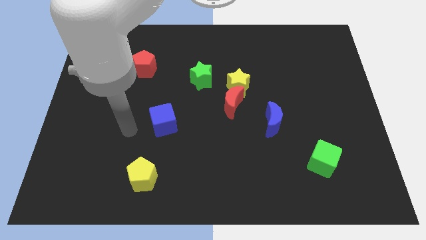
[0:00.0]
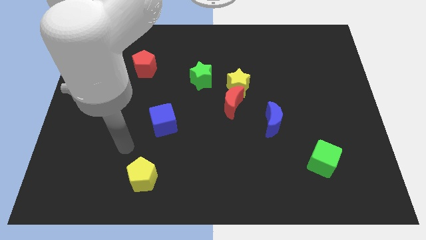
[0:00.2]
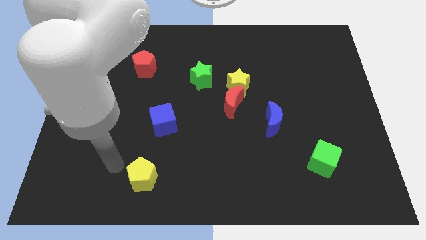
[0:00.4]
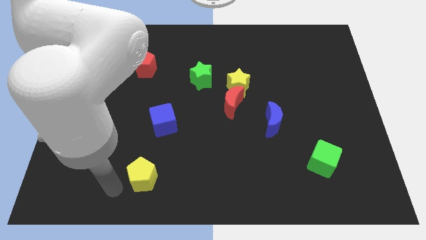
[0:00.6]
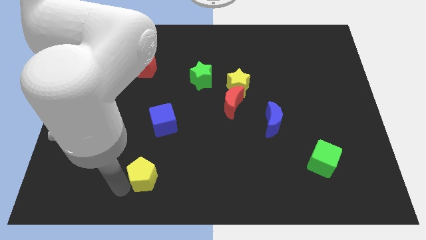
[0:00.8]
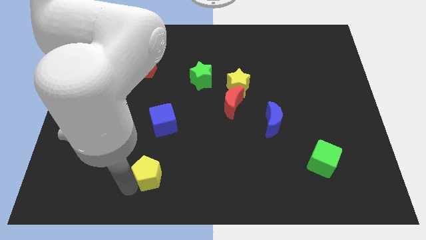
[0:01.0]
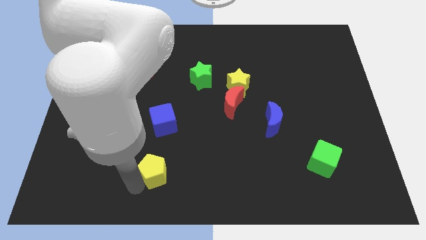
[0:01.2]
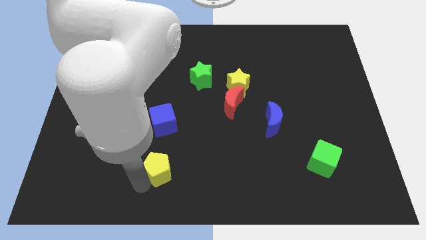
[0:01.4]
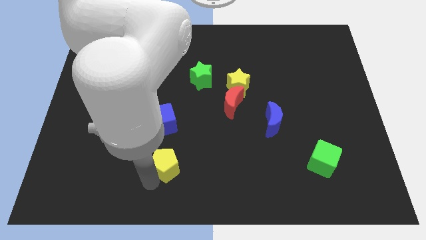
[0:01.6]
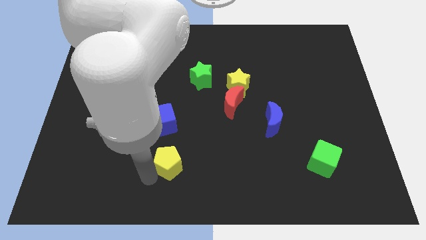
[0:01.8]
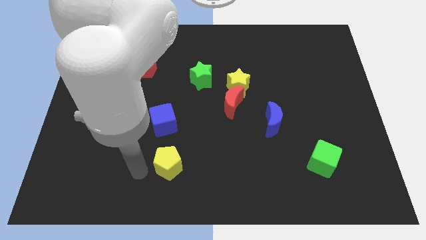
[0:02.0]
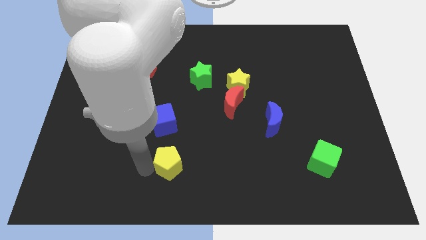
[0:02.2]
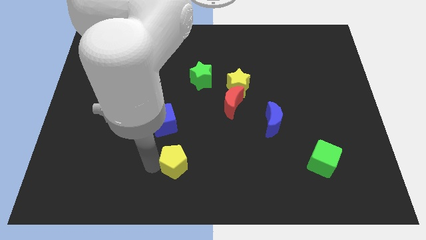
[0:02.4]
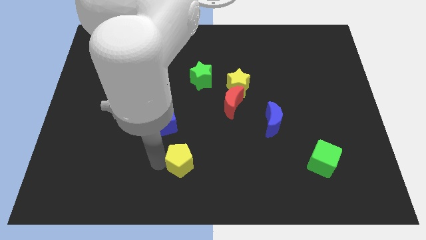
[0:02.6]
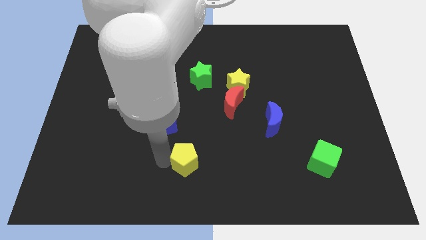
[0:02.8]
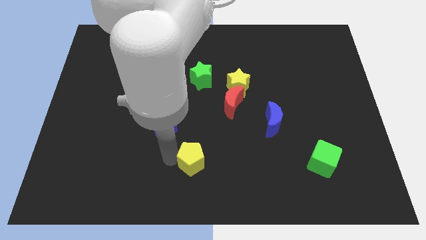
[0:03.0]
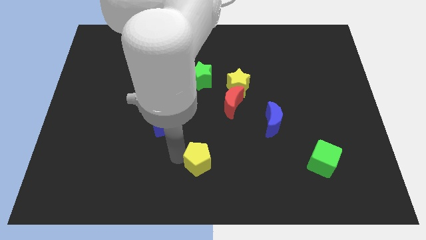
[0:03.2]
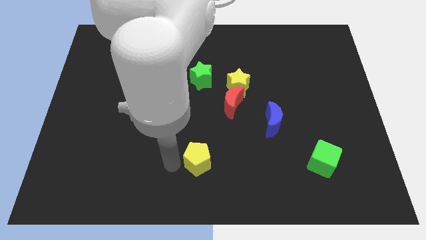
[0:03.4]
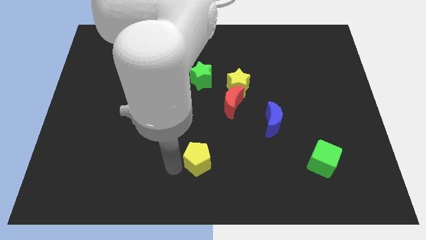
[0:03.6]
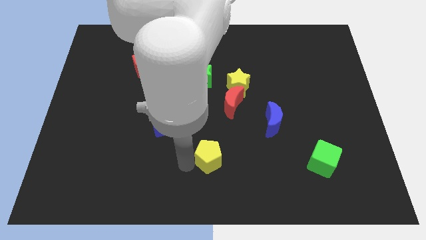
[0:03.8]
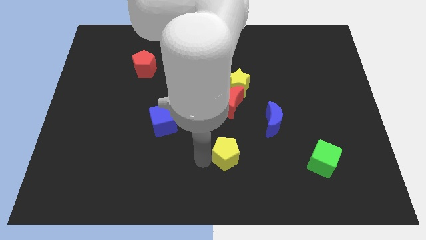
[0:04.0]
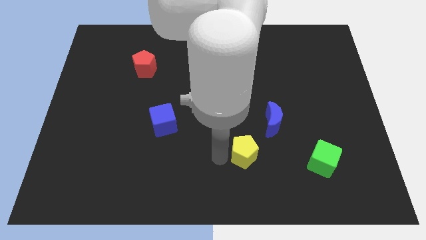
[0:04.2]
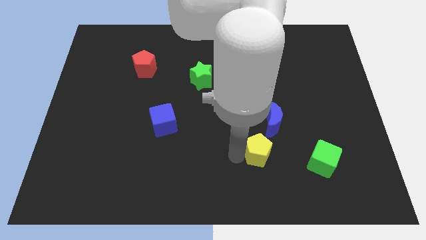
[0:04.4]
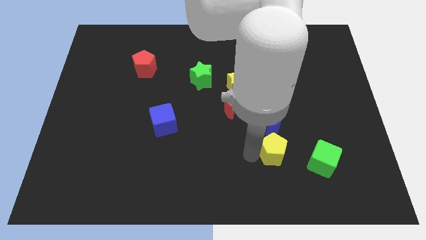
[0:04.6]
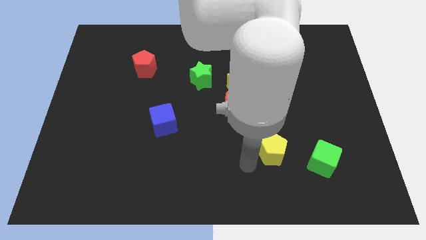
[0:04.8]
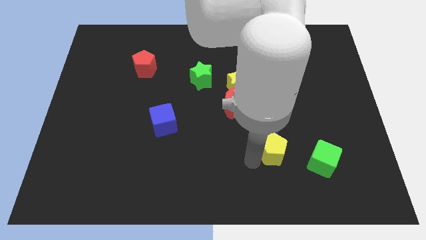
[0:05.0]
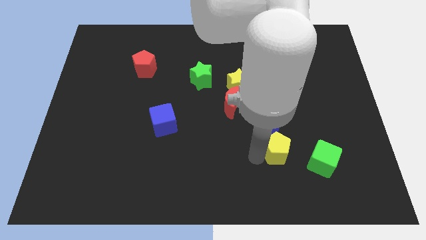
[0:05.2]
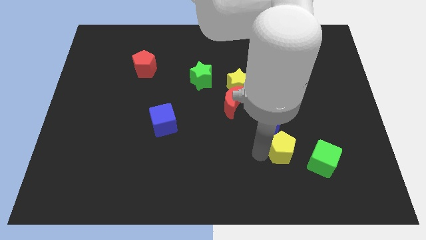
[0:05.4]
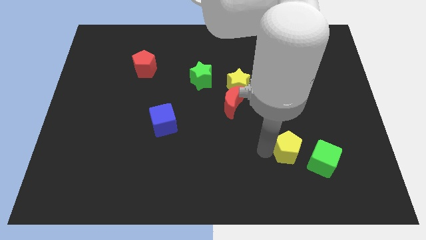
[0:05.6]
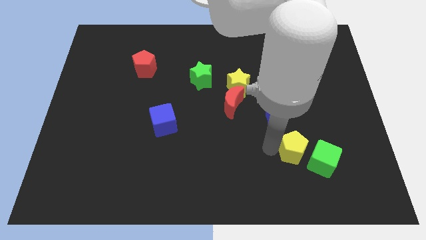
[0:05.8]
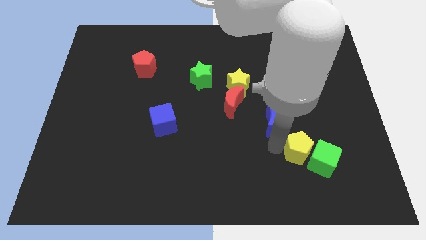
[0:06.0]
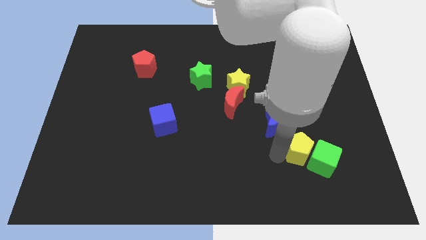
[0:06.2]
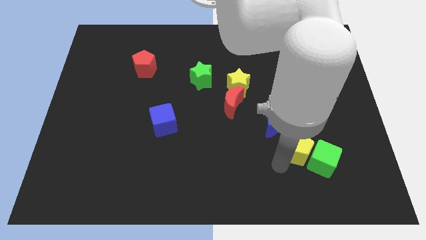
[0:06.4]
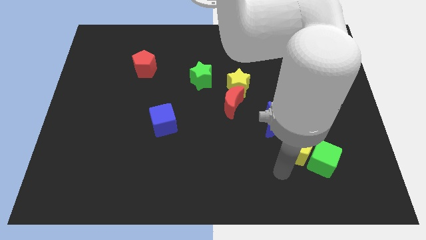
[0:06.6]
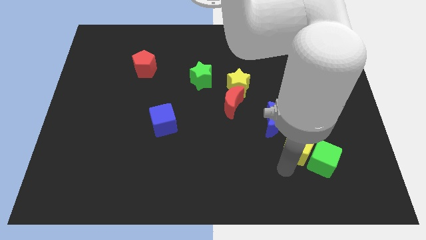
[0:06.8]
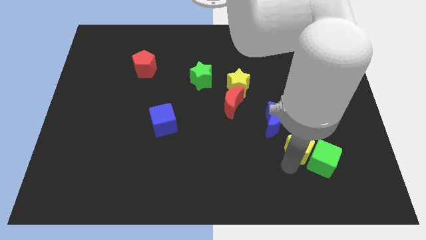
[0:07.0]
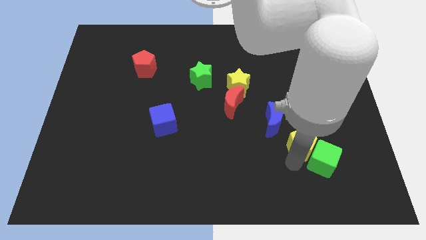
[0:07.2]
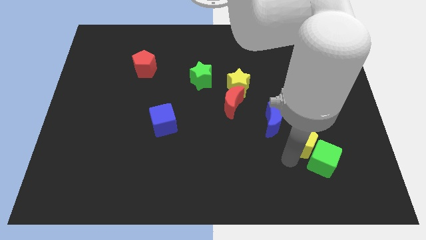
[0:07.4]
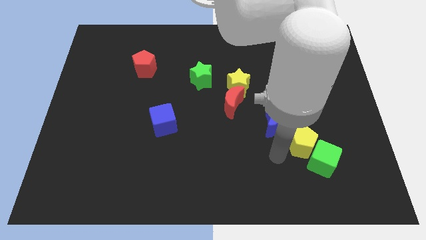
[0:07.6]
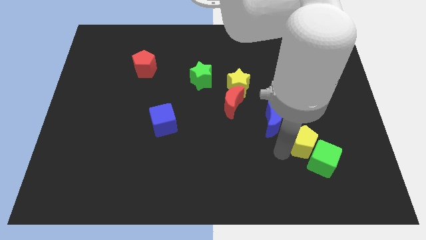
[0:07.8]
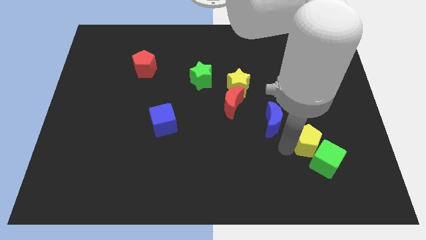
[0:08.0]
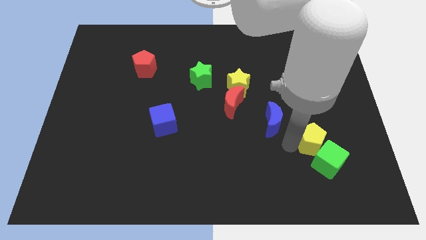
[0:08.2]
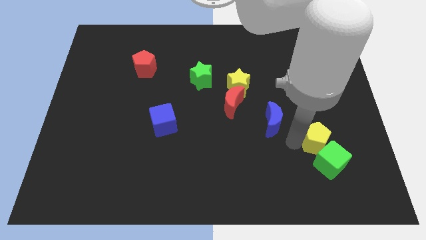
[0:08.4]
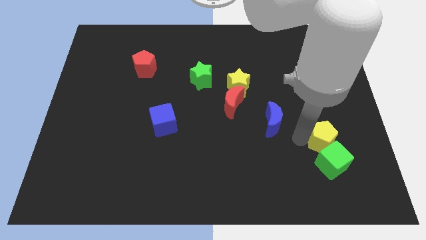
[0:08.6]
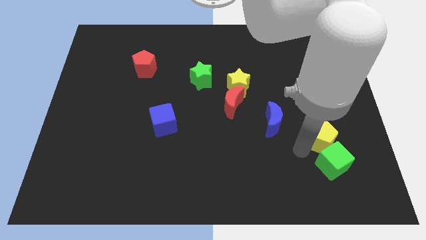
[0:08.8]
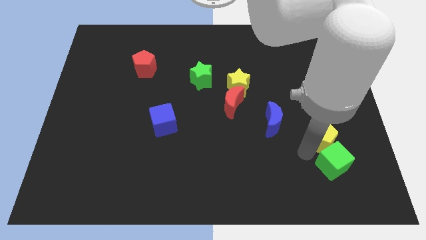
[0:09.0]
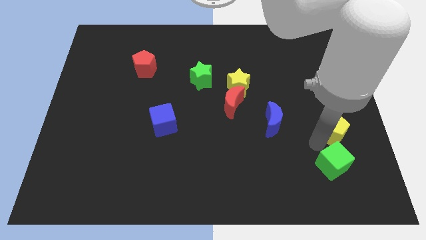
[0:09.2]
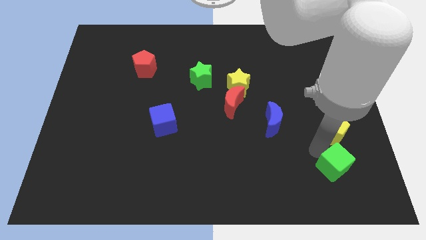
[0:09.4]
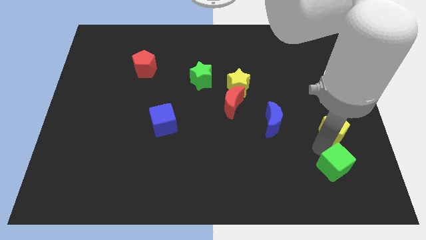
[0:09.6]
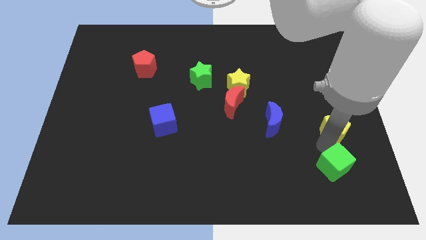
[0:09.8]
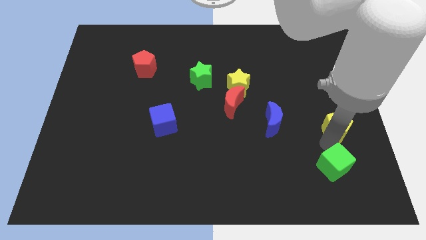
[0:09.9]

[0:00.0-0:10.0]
push the yellow pentagon to the right side
